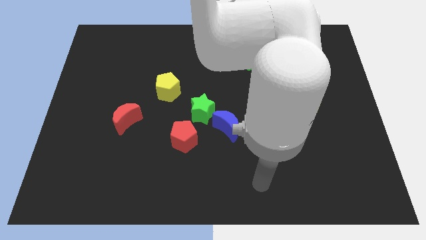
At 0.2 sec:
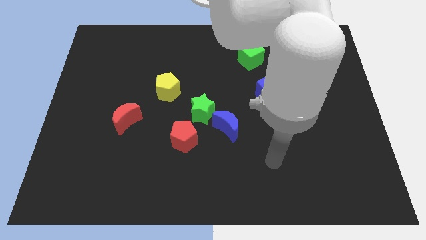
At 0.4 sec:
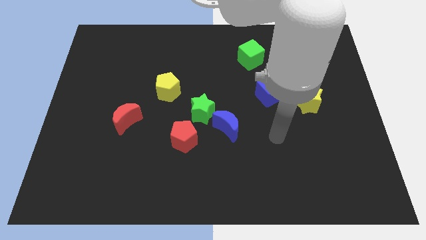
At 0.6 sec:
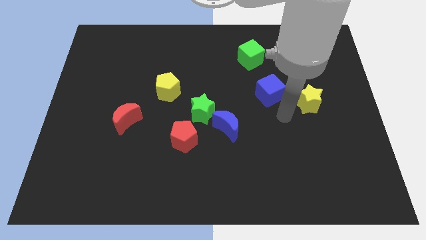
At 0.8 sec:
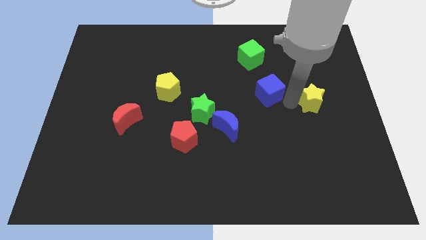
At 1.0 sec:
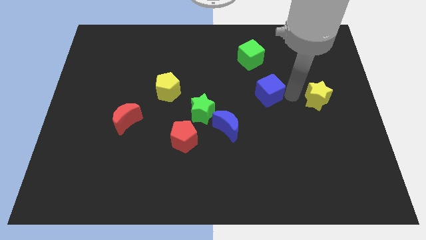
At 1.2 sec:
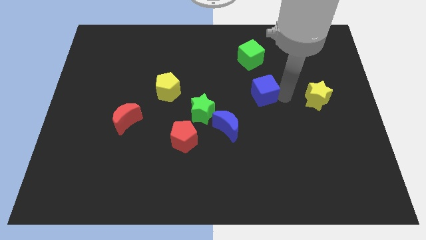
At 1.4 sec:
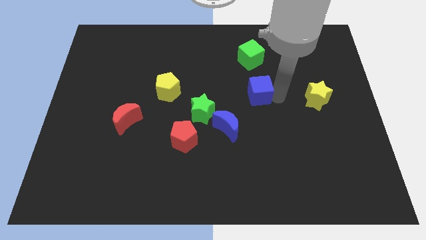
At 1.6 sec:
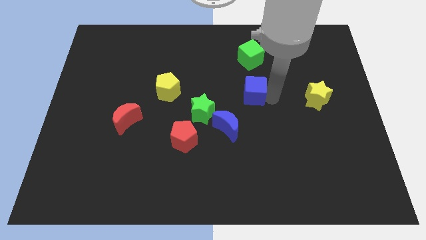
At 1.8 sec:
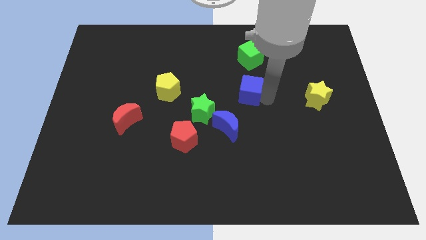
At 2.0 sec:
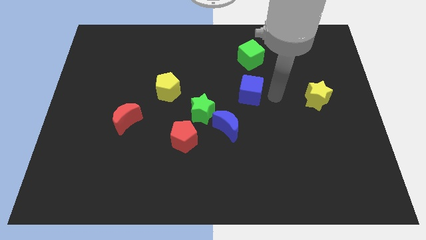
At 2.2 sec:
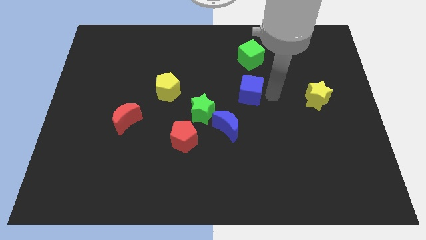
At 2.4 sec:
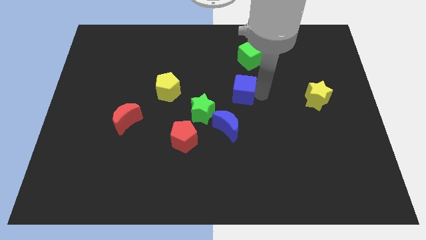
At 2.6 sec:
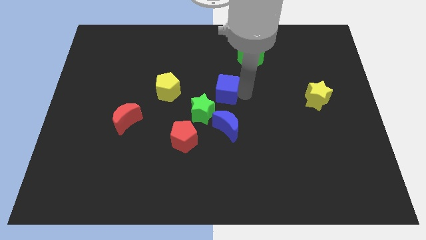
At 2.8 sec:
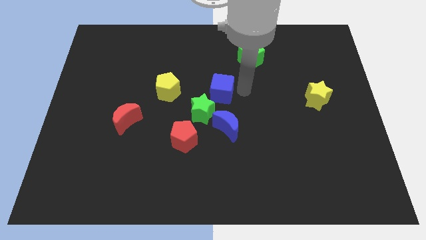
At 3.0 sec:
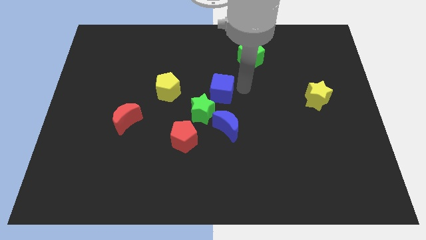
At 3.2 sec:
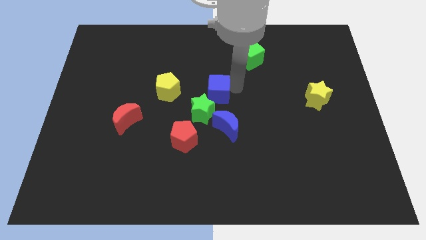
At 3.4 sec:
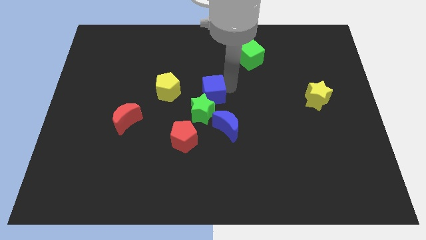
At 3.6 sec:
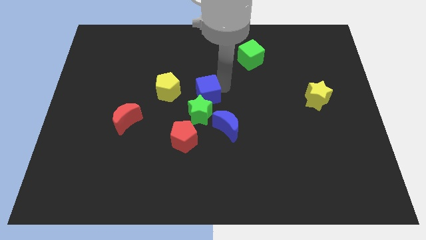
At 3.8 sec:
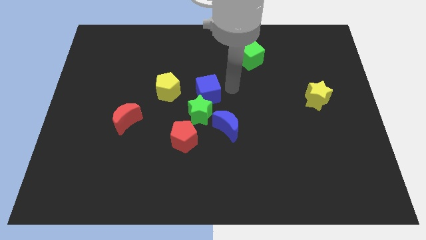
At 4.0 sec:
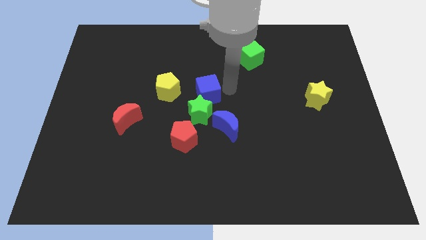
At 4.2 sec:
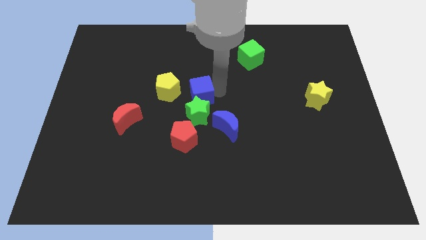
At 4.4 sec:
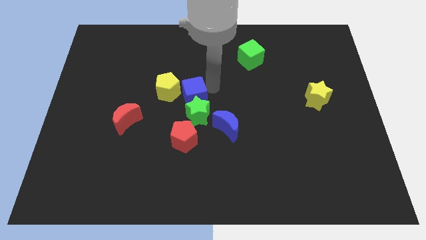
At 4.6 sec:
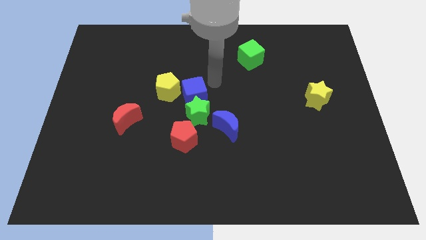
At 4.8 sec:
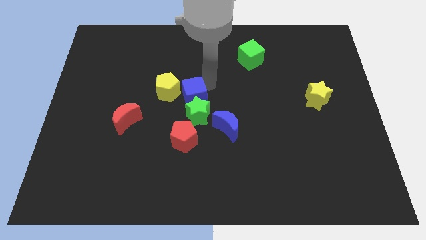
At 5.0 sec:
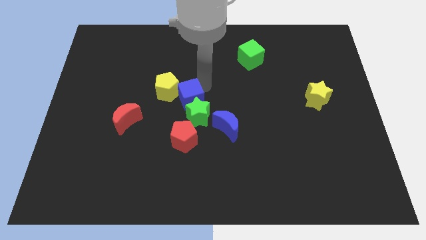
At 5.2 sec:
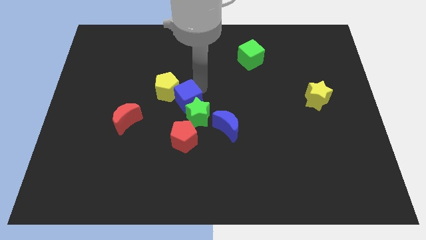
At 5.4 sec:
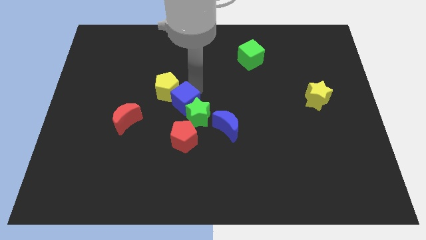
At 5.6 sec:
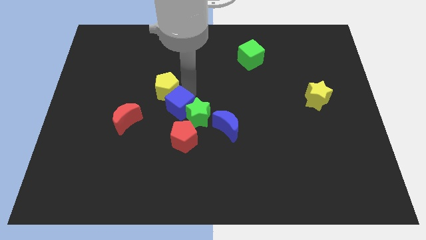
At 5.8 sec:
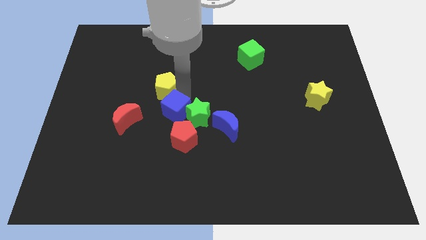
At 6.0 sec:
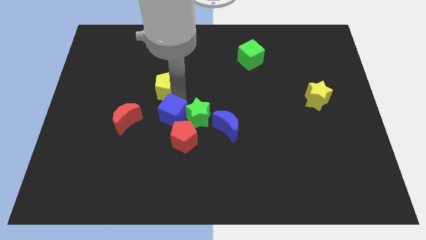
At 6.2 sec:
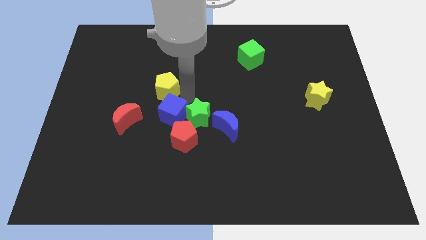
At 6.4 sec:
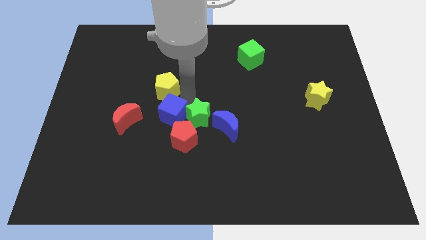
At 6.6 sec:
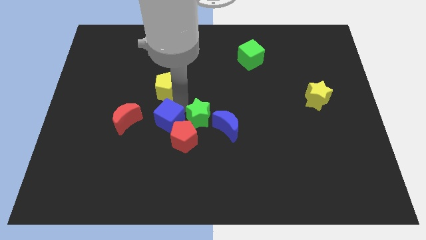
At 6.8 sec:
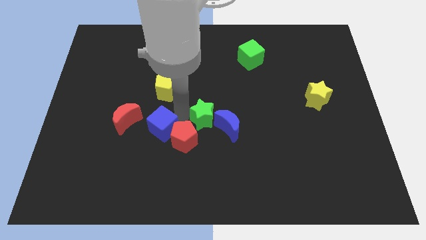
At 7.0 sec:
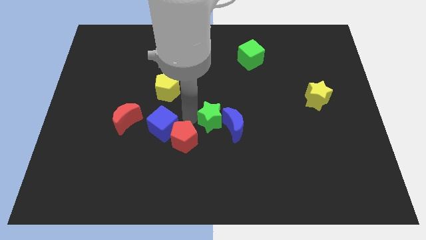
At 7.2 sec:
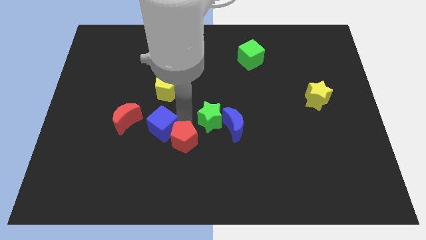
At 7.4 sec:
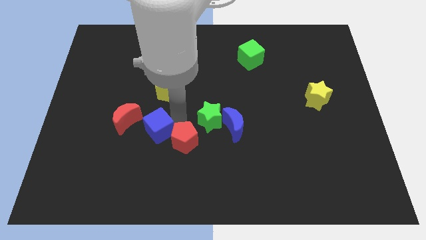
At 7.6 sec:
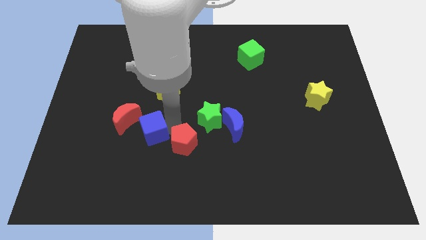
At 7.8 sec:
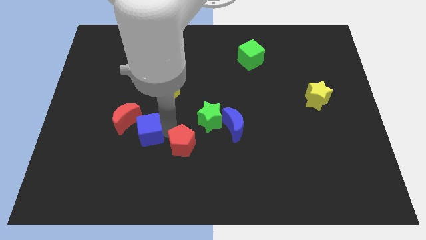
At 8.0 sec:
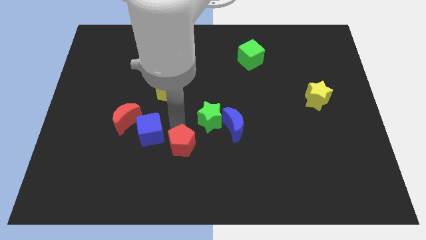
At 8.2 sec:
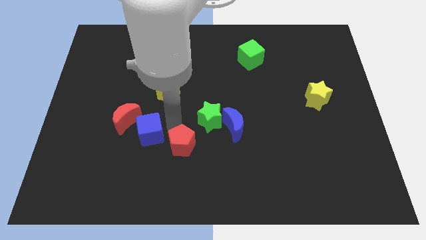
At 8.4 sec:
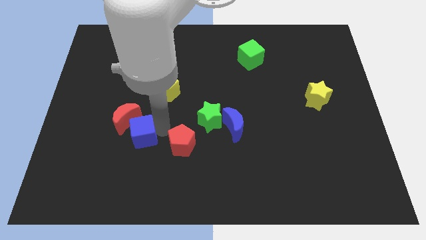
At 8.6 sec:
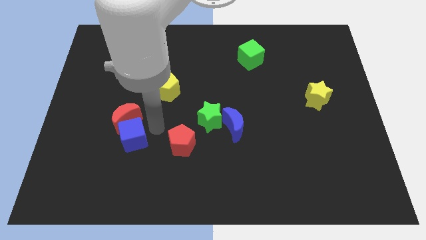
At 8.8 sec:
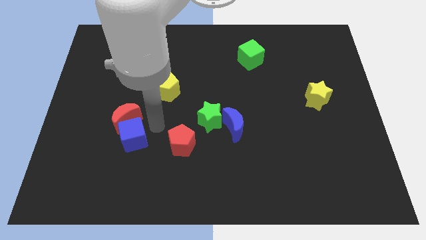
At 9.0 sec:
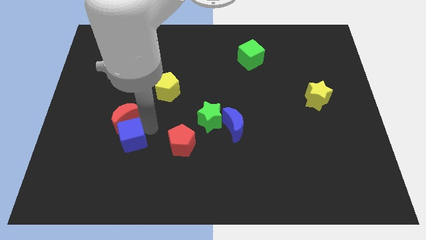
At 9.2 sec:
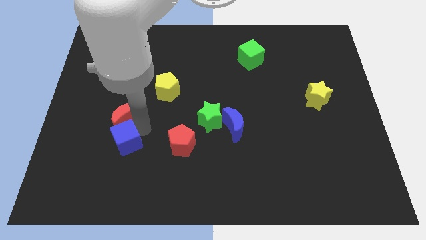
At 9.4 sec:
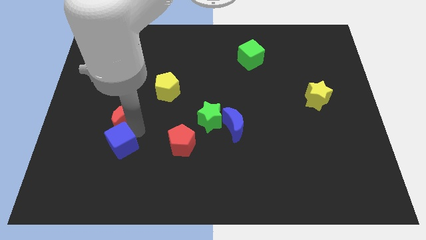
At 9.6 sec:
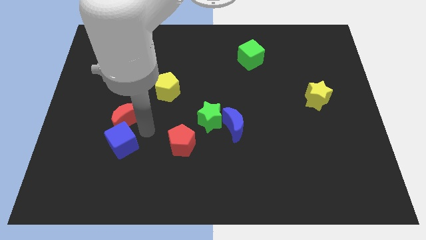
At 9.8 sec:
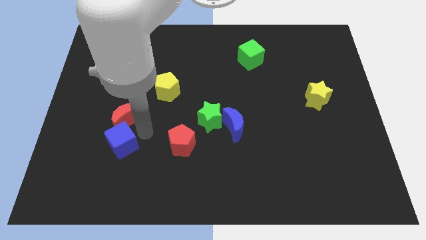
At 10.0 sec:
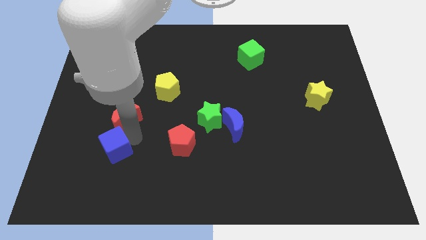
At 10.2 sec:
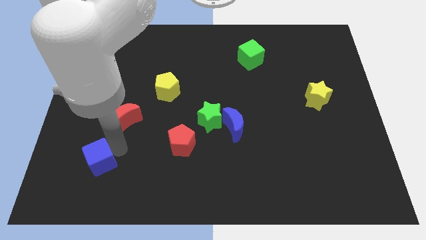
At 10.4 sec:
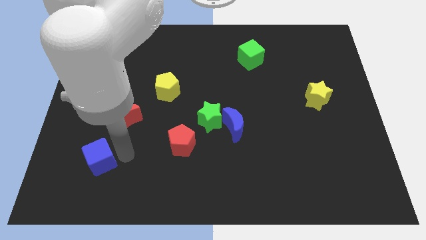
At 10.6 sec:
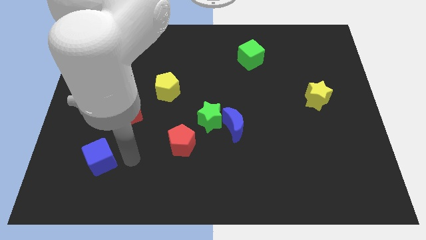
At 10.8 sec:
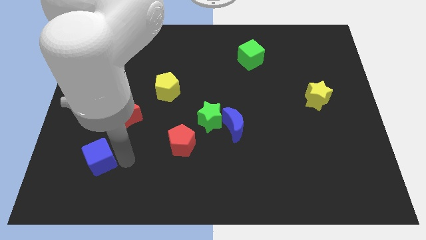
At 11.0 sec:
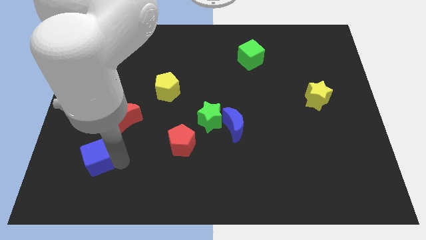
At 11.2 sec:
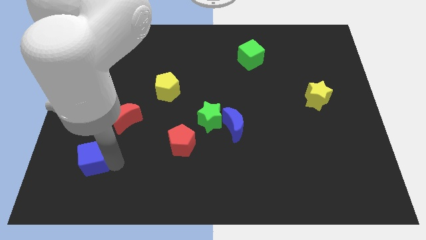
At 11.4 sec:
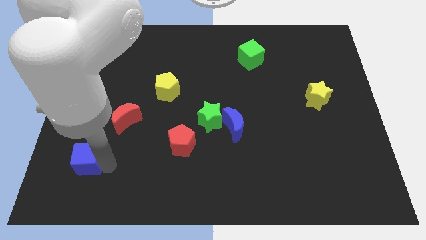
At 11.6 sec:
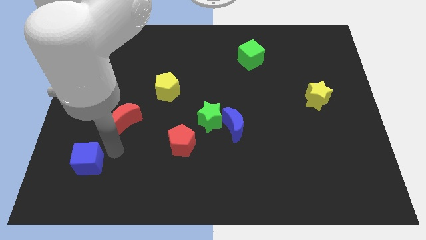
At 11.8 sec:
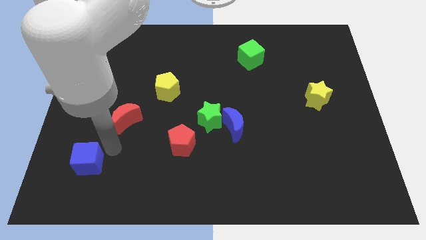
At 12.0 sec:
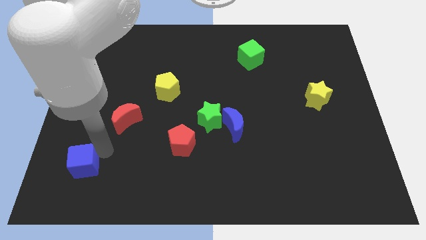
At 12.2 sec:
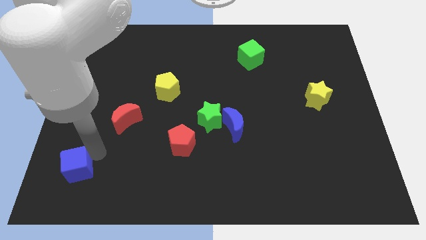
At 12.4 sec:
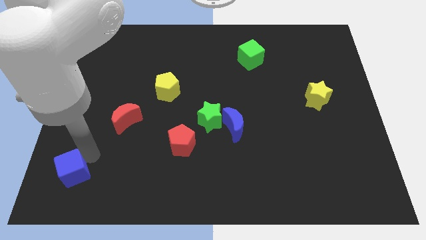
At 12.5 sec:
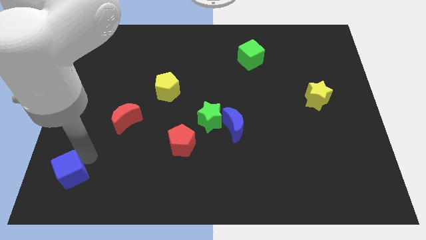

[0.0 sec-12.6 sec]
slide the blue cube to the lower left corner
